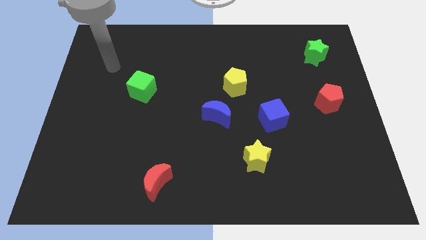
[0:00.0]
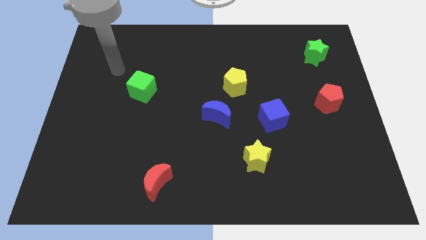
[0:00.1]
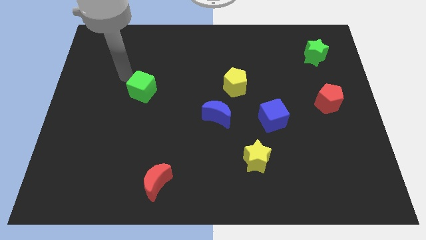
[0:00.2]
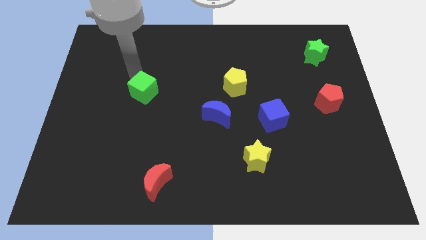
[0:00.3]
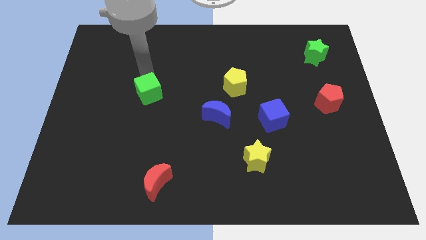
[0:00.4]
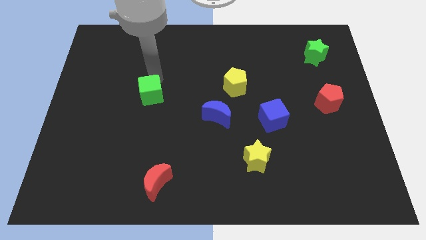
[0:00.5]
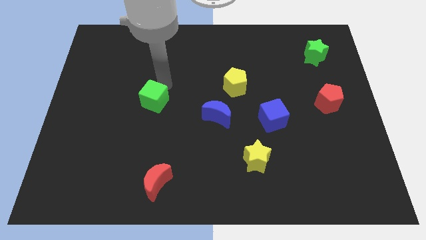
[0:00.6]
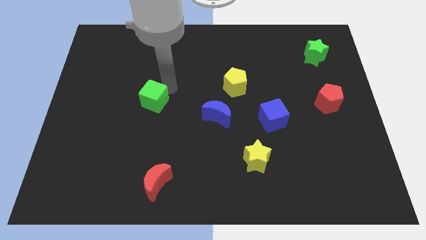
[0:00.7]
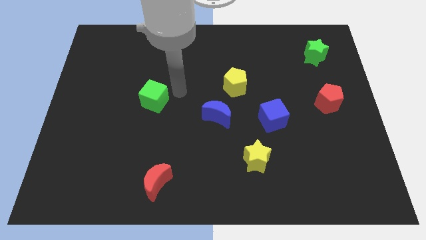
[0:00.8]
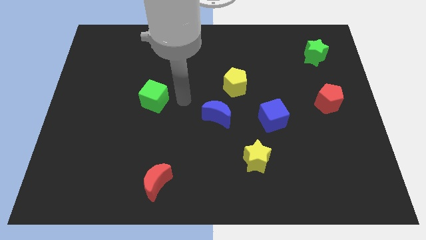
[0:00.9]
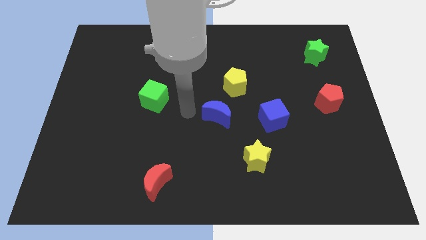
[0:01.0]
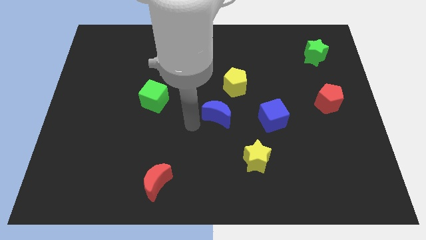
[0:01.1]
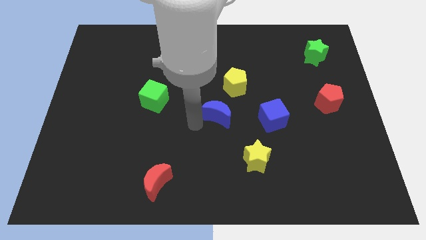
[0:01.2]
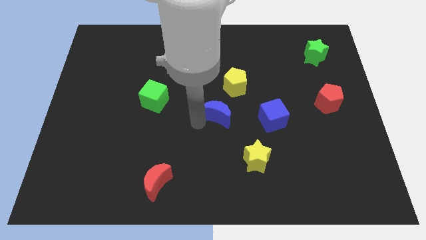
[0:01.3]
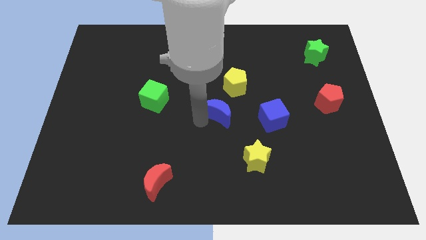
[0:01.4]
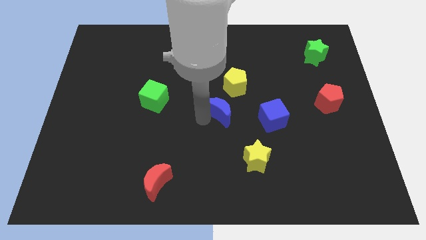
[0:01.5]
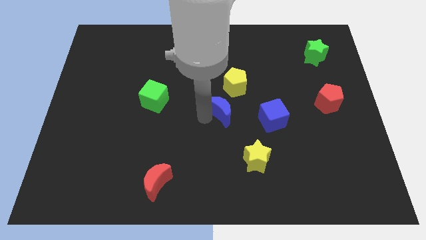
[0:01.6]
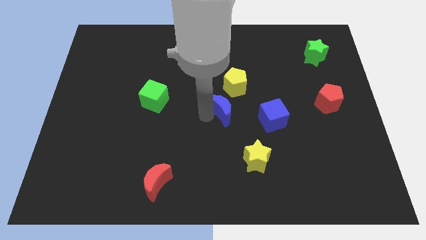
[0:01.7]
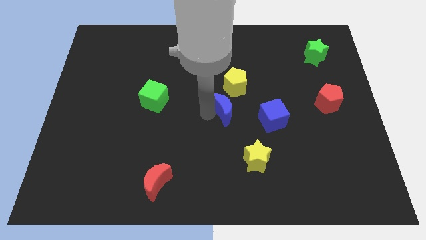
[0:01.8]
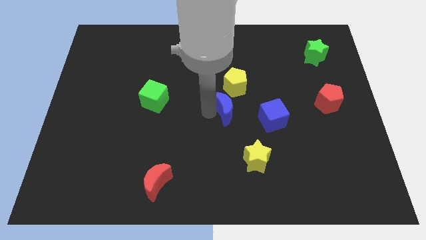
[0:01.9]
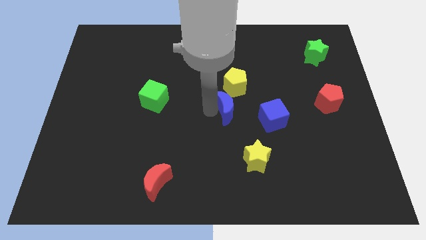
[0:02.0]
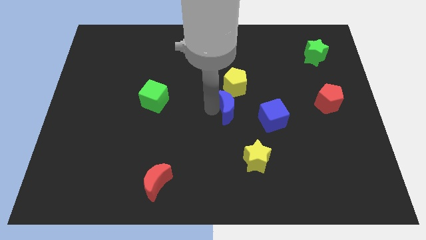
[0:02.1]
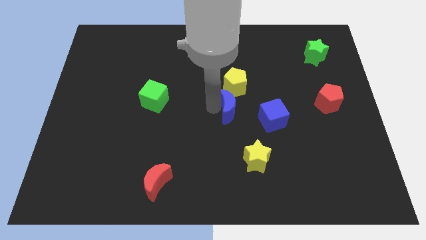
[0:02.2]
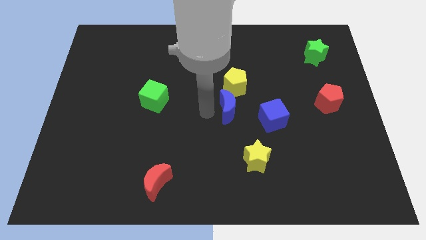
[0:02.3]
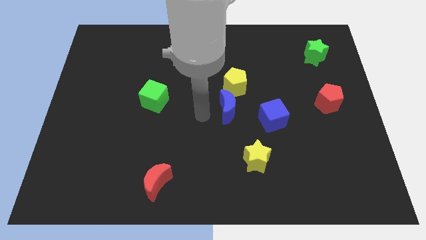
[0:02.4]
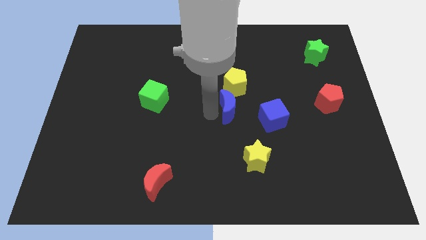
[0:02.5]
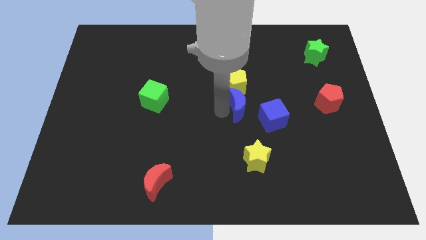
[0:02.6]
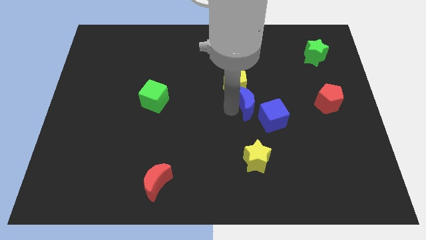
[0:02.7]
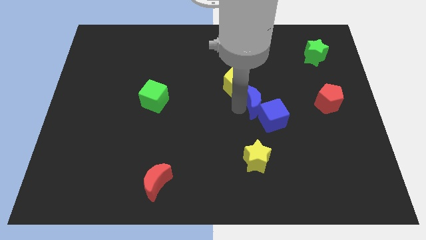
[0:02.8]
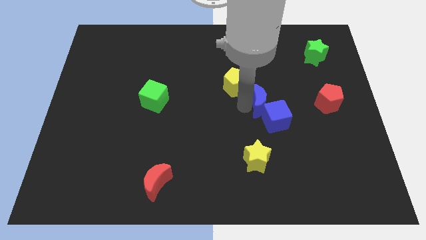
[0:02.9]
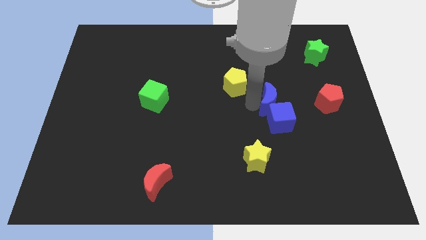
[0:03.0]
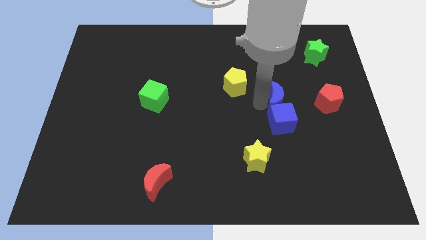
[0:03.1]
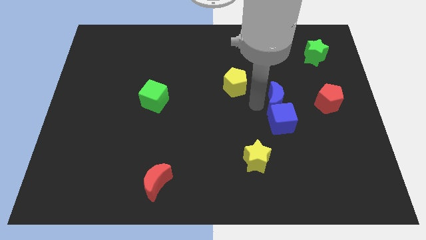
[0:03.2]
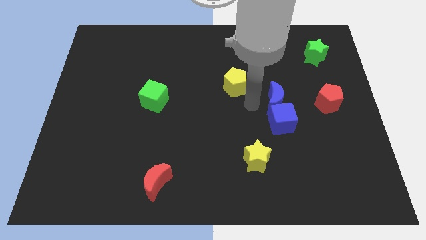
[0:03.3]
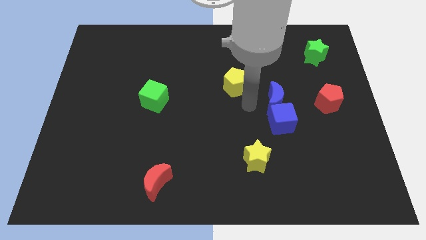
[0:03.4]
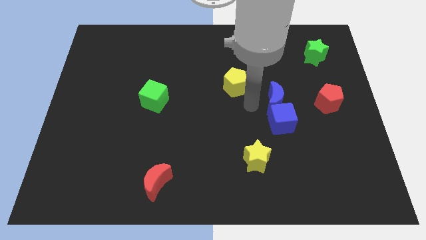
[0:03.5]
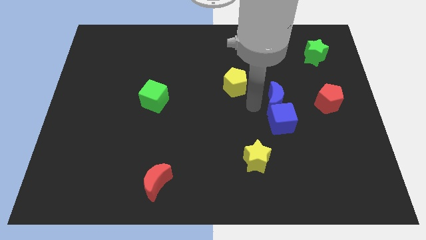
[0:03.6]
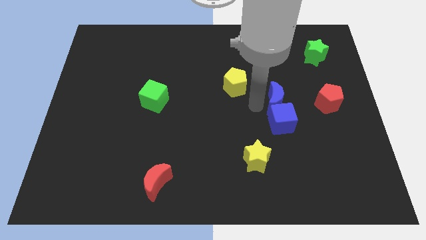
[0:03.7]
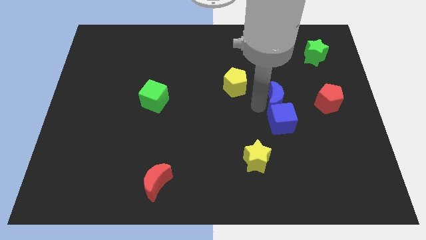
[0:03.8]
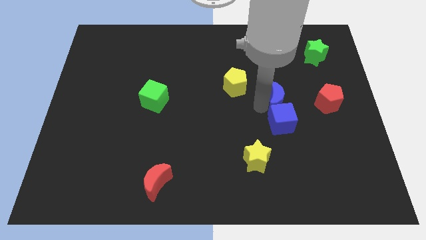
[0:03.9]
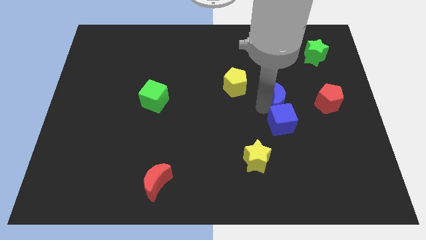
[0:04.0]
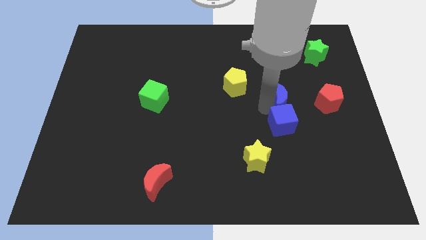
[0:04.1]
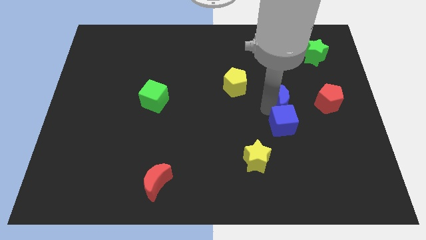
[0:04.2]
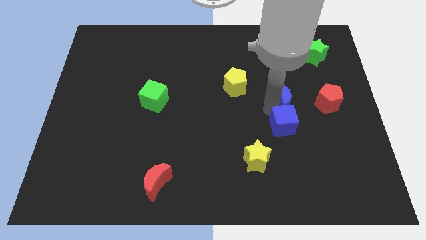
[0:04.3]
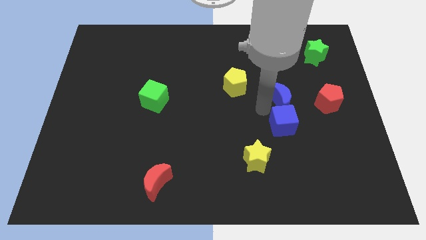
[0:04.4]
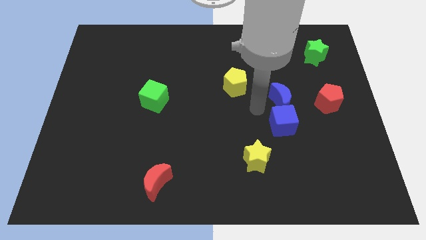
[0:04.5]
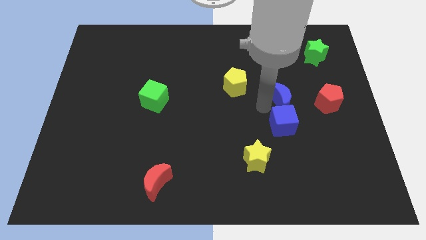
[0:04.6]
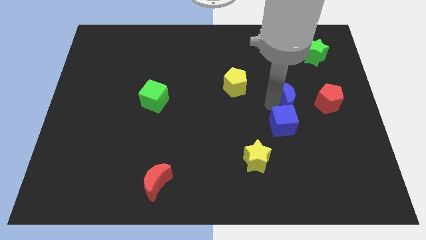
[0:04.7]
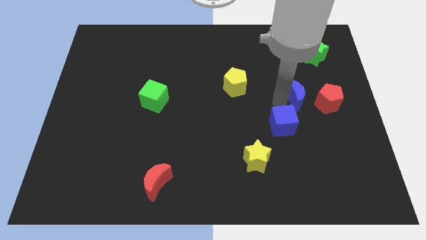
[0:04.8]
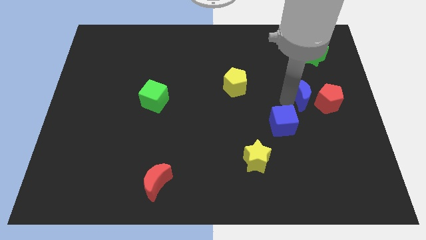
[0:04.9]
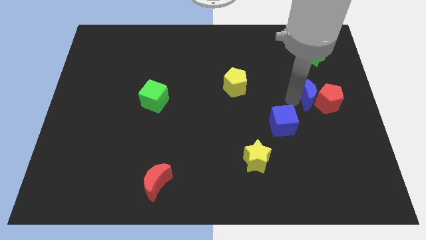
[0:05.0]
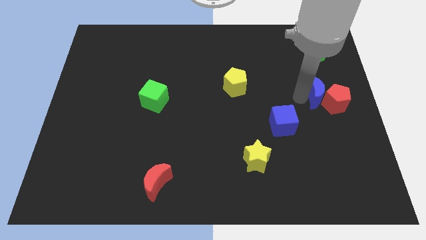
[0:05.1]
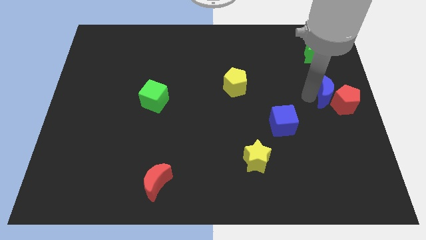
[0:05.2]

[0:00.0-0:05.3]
push the blue moon to the right side of the board
